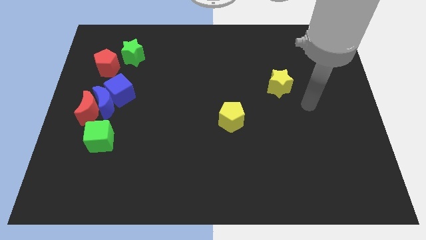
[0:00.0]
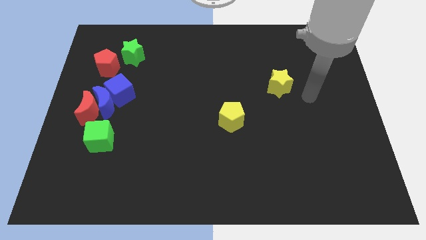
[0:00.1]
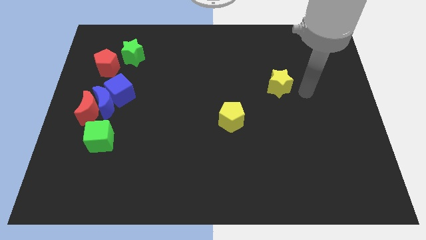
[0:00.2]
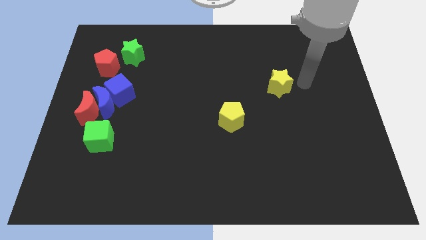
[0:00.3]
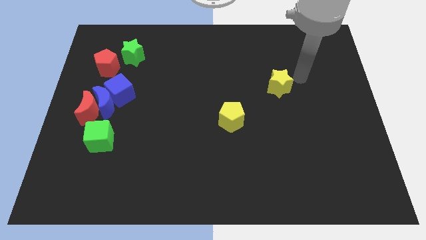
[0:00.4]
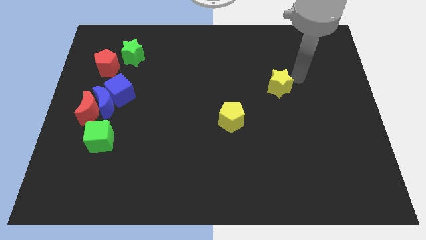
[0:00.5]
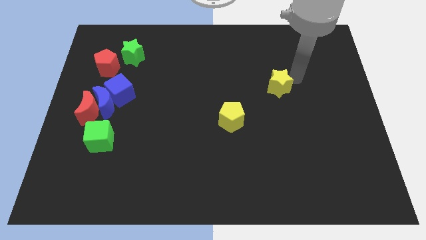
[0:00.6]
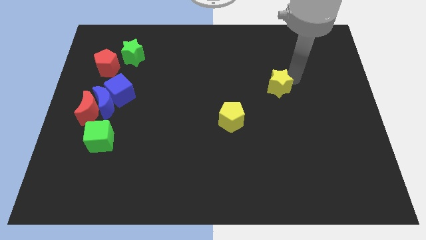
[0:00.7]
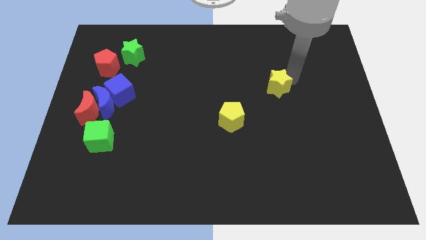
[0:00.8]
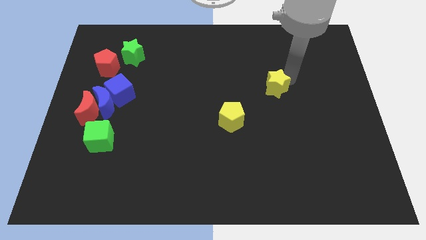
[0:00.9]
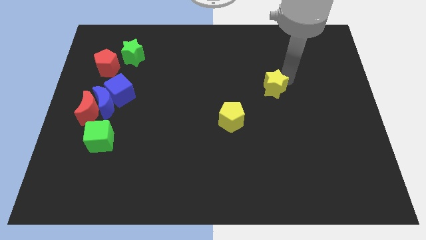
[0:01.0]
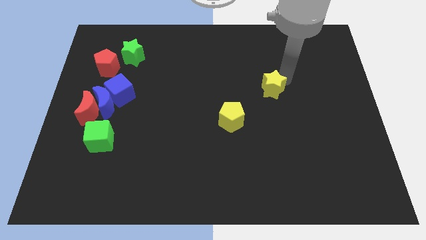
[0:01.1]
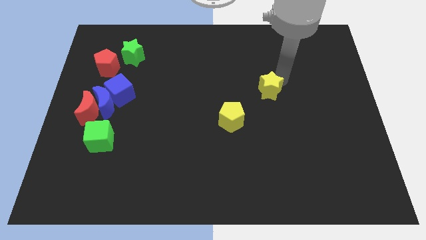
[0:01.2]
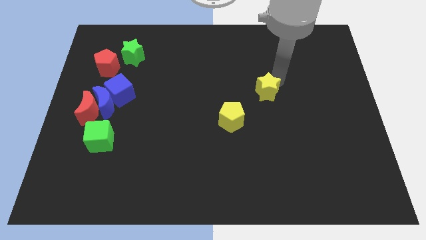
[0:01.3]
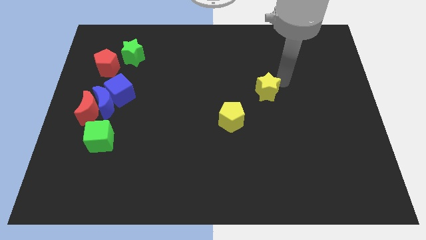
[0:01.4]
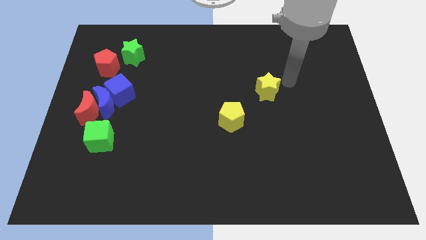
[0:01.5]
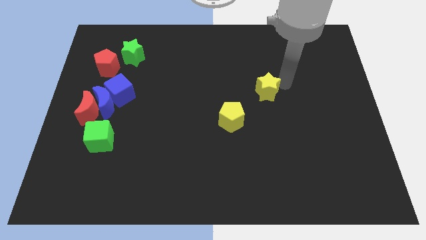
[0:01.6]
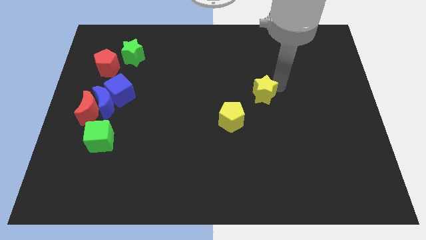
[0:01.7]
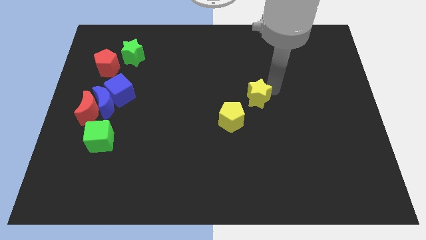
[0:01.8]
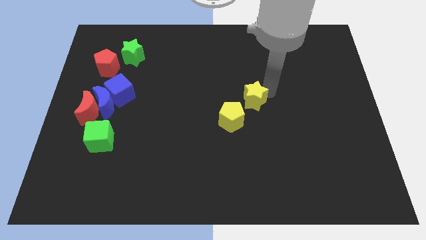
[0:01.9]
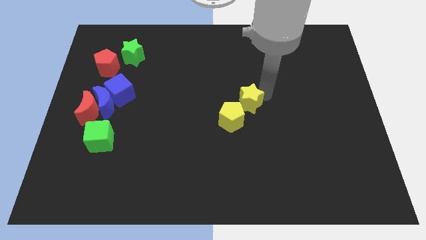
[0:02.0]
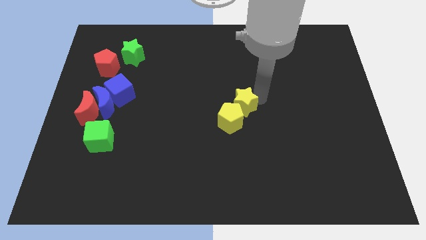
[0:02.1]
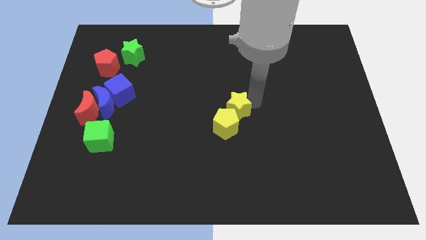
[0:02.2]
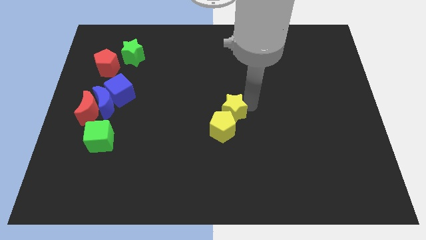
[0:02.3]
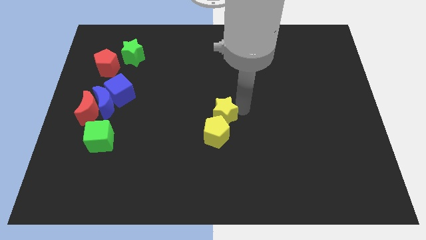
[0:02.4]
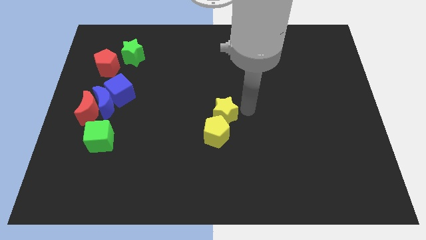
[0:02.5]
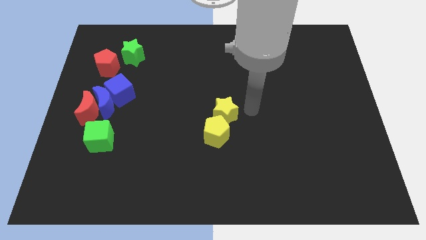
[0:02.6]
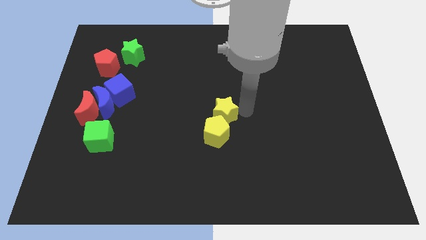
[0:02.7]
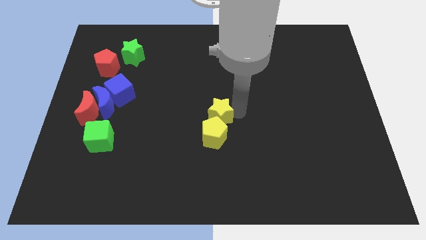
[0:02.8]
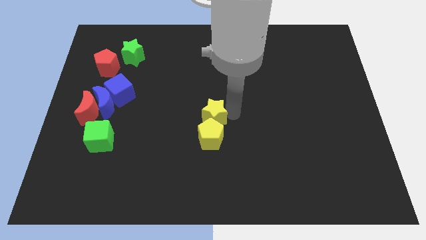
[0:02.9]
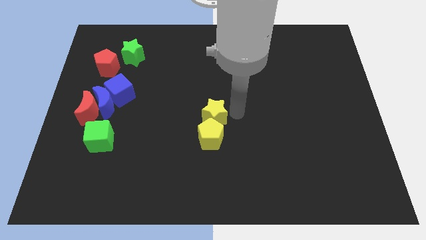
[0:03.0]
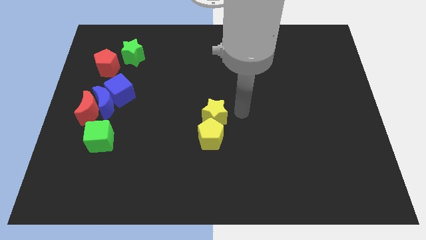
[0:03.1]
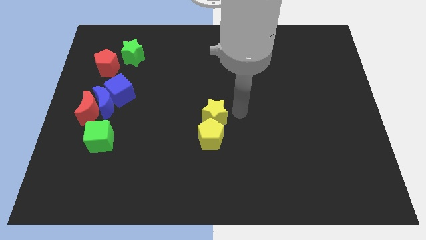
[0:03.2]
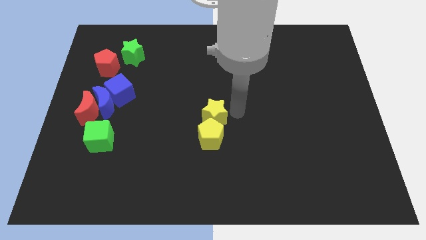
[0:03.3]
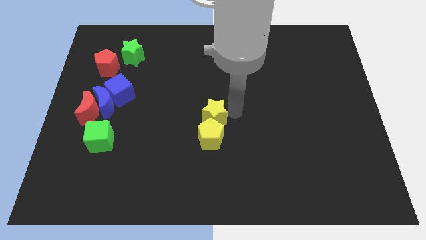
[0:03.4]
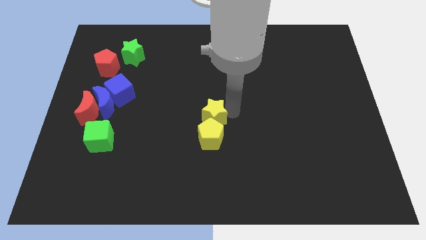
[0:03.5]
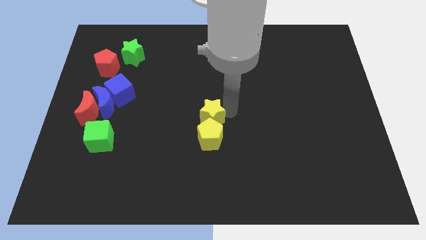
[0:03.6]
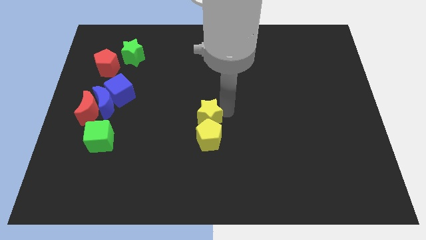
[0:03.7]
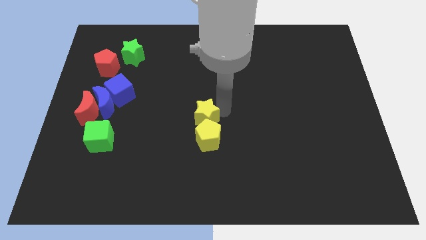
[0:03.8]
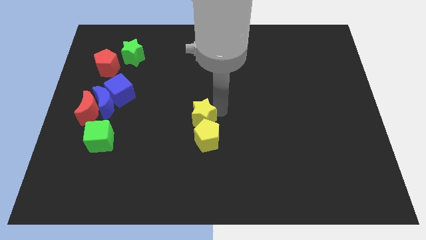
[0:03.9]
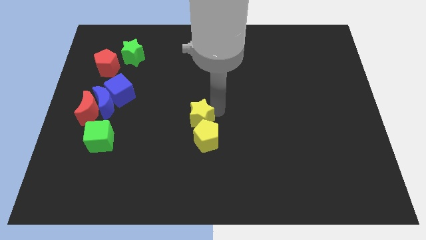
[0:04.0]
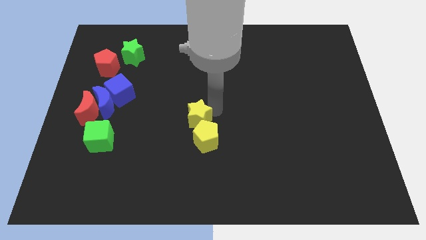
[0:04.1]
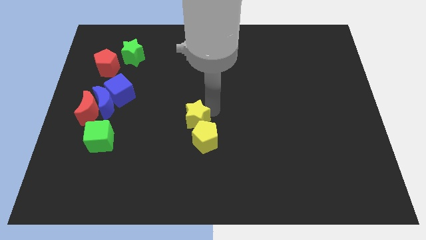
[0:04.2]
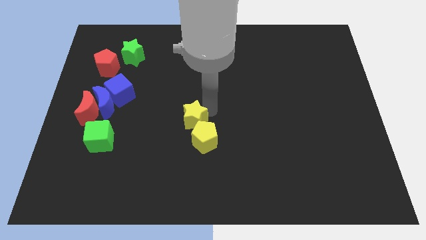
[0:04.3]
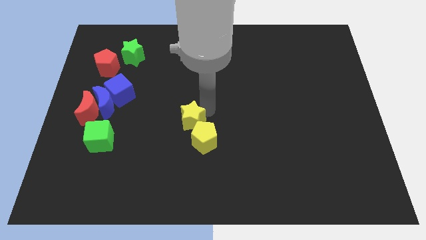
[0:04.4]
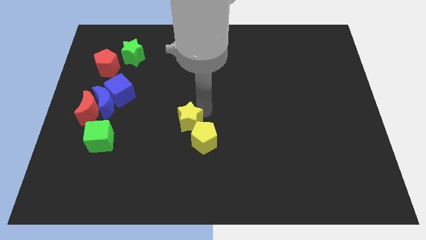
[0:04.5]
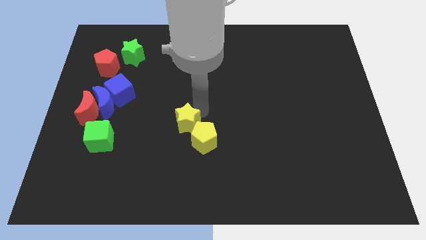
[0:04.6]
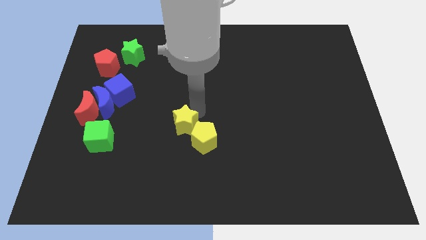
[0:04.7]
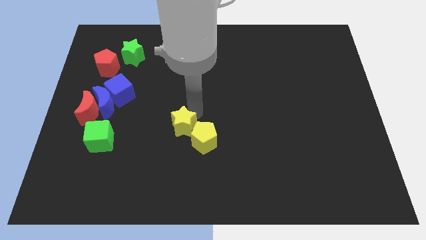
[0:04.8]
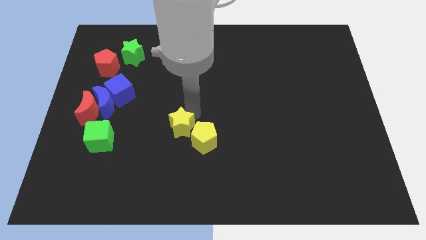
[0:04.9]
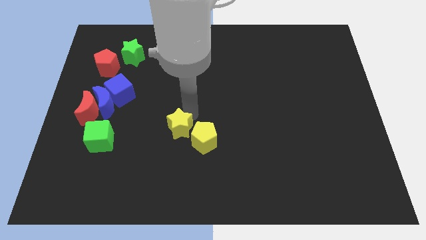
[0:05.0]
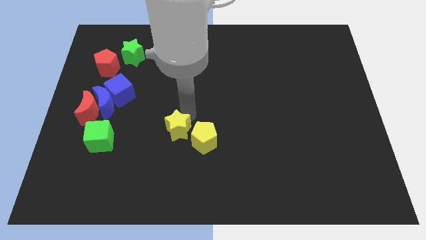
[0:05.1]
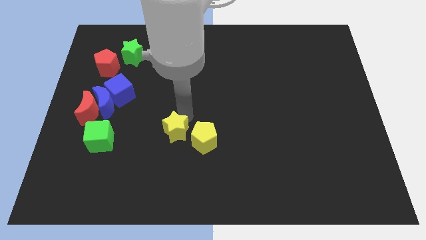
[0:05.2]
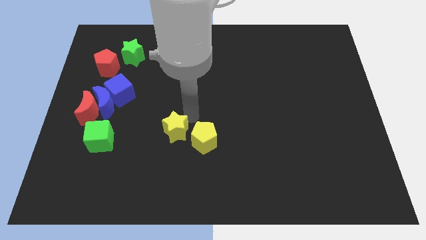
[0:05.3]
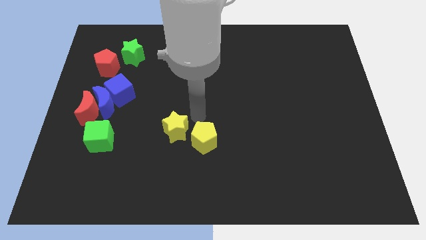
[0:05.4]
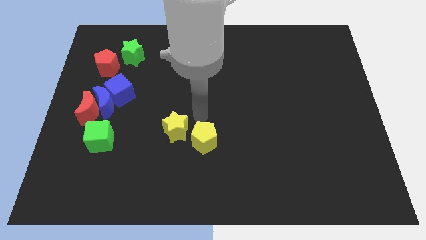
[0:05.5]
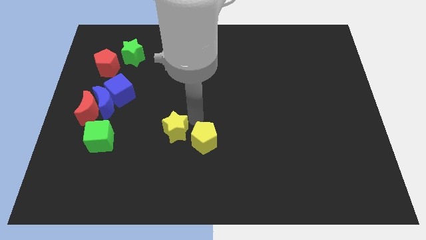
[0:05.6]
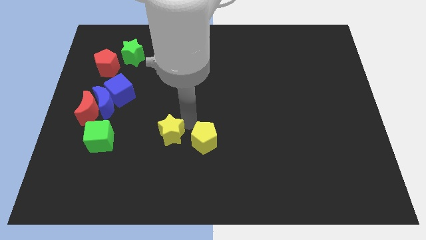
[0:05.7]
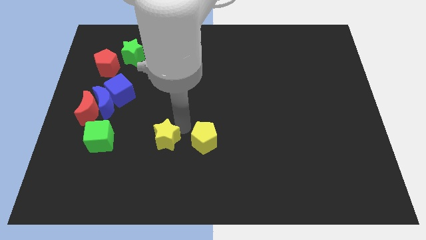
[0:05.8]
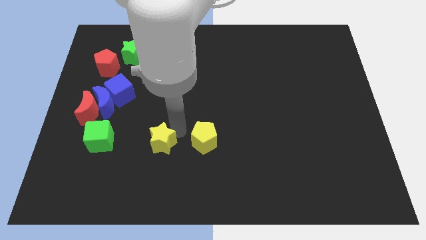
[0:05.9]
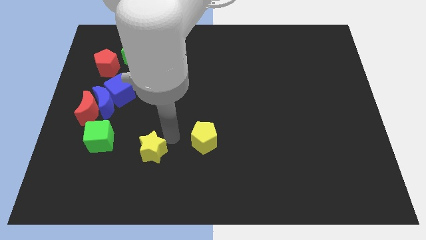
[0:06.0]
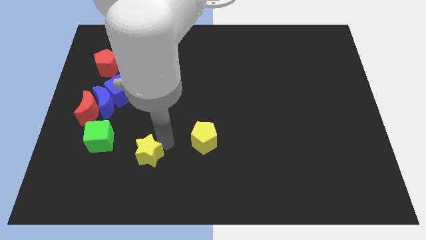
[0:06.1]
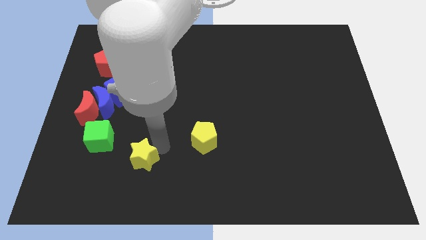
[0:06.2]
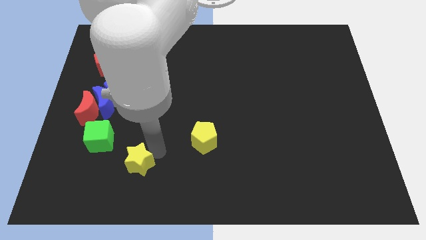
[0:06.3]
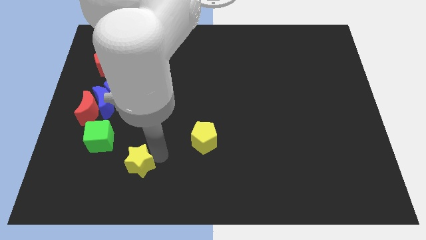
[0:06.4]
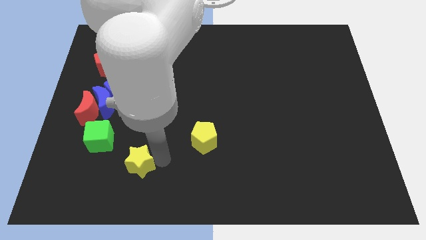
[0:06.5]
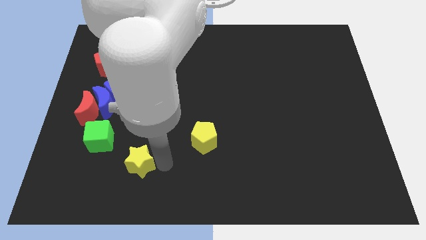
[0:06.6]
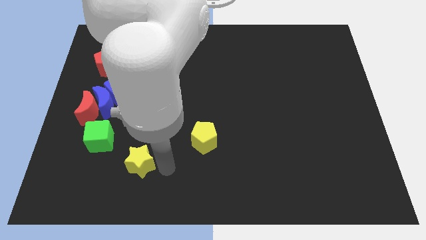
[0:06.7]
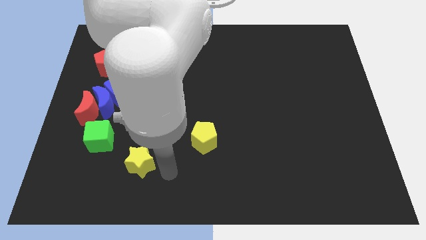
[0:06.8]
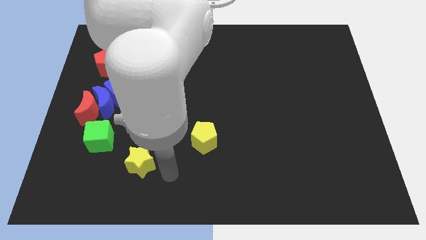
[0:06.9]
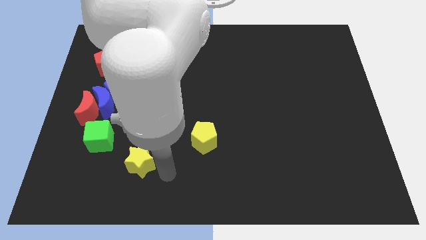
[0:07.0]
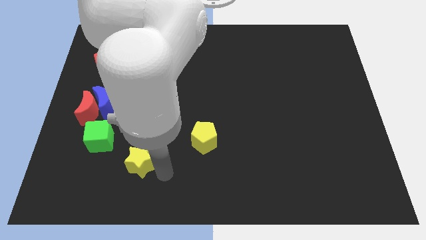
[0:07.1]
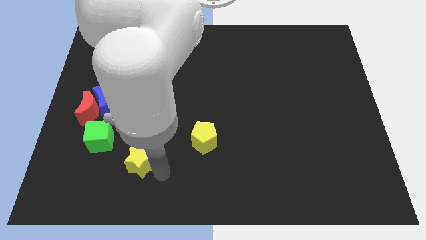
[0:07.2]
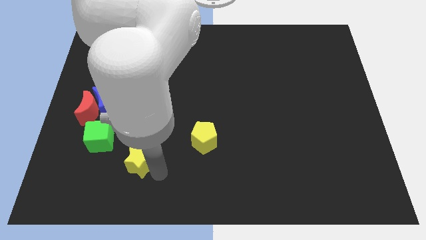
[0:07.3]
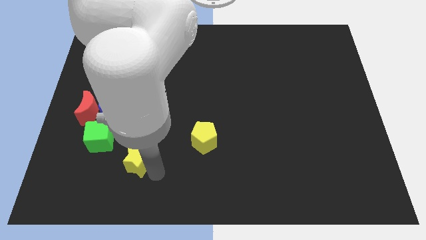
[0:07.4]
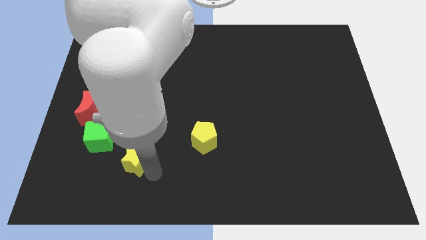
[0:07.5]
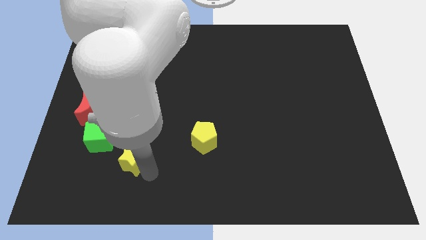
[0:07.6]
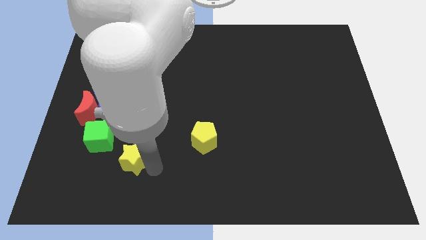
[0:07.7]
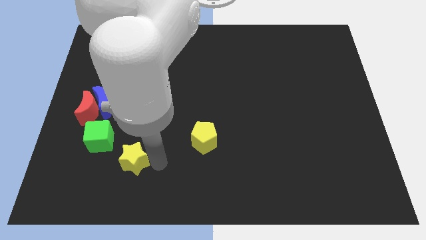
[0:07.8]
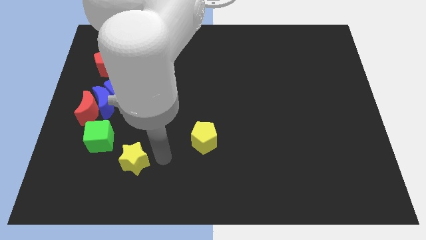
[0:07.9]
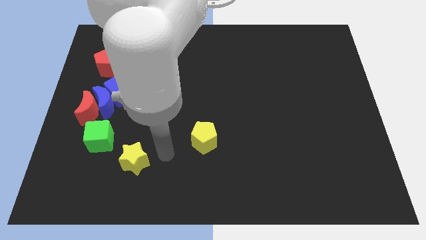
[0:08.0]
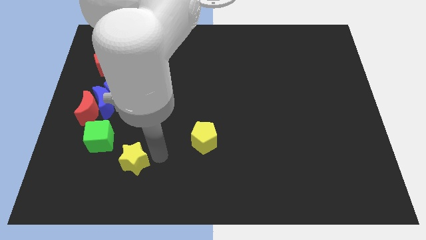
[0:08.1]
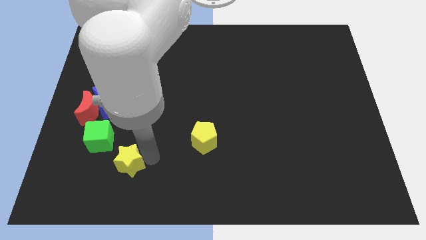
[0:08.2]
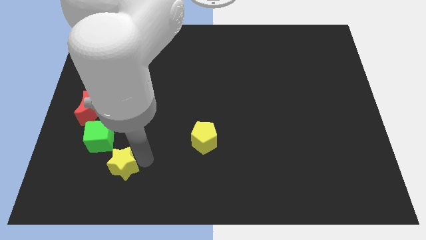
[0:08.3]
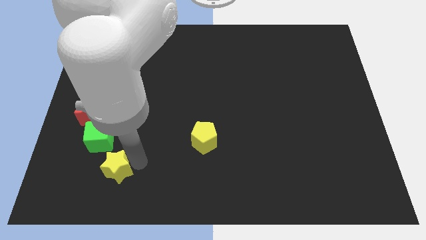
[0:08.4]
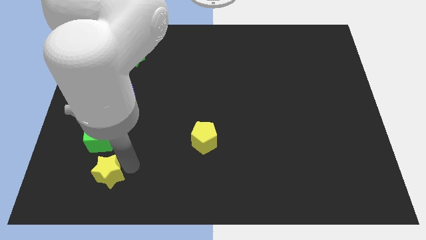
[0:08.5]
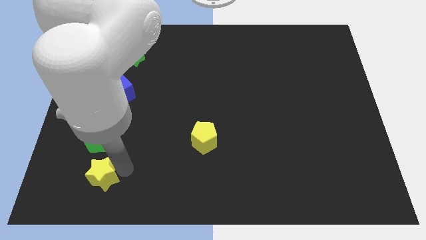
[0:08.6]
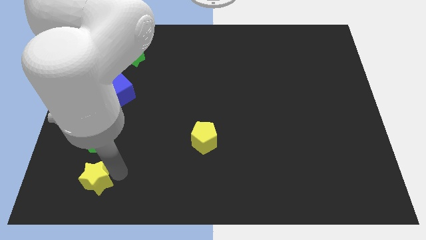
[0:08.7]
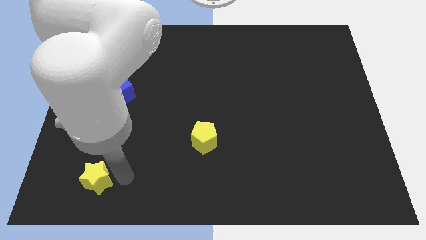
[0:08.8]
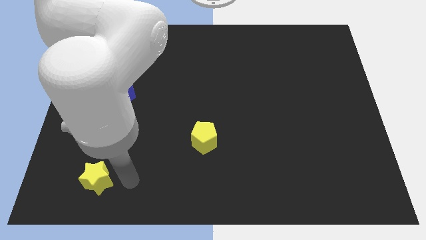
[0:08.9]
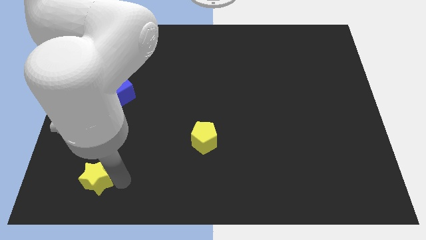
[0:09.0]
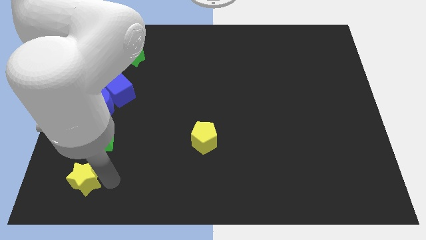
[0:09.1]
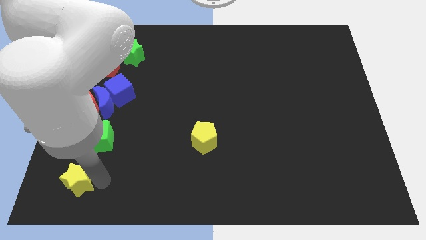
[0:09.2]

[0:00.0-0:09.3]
push the yellow star to the bottom left
